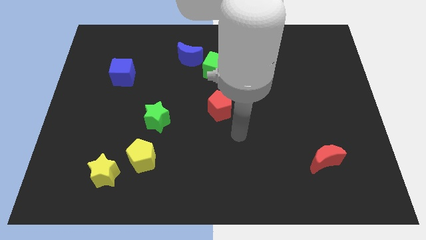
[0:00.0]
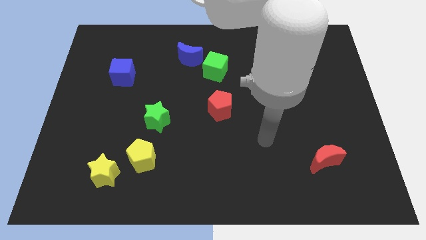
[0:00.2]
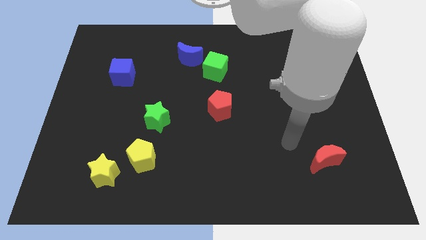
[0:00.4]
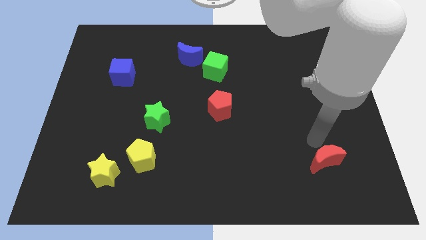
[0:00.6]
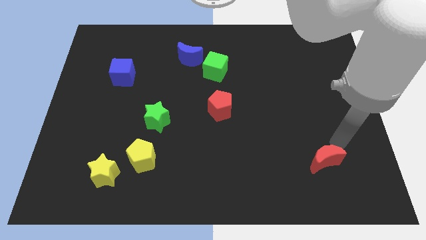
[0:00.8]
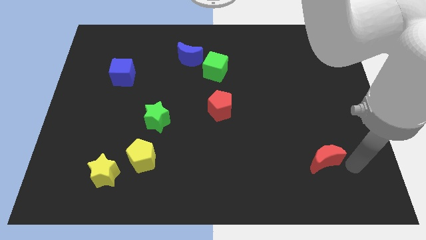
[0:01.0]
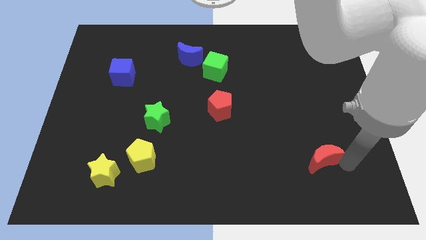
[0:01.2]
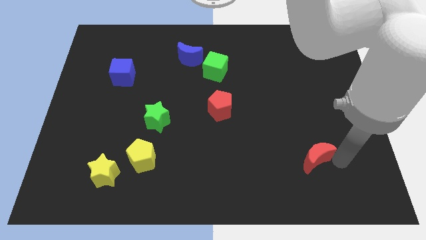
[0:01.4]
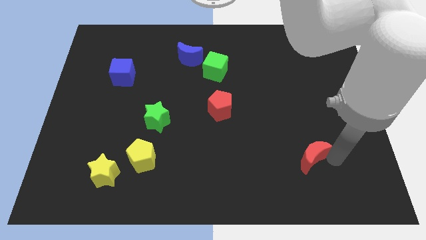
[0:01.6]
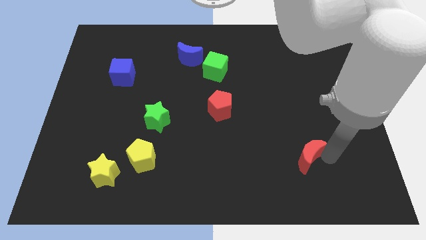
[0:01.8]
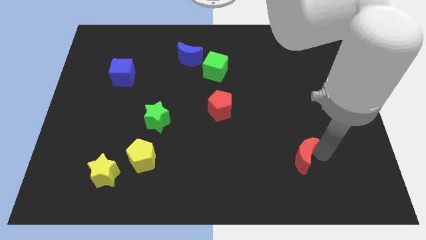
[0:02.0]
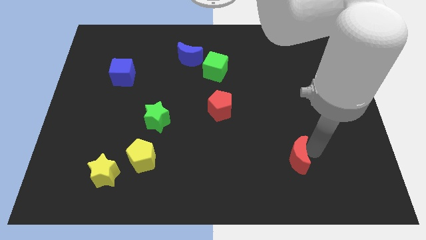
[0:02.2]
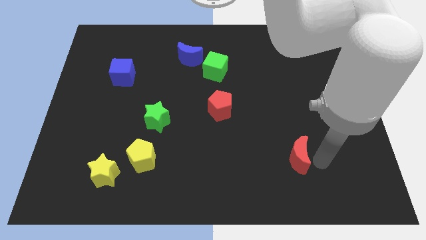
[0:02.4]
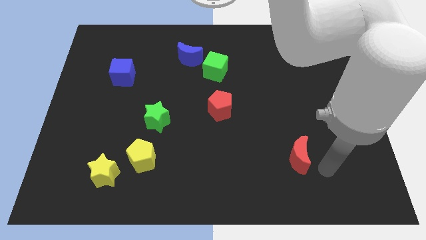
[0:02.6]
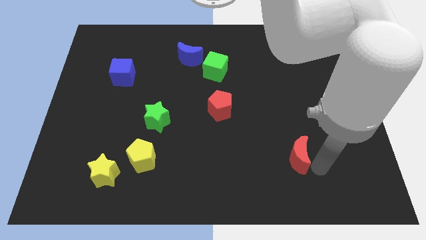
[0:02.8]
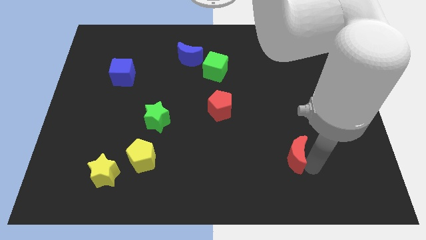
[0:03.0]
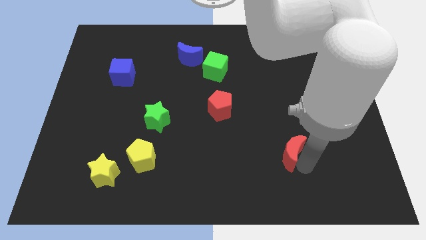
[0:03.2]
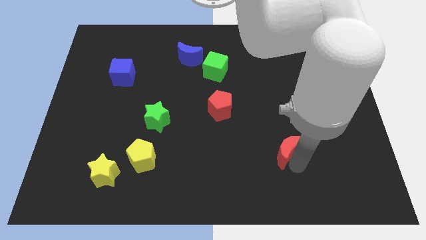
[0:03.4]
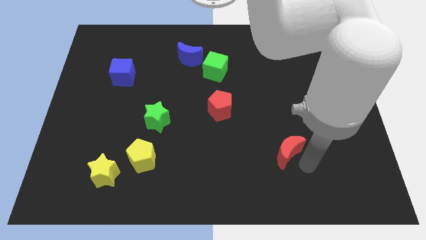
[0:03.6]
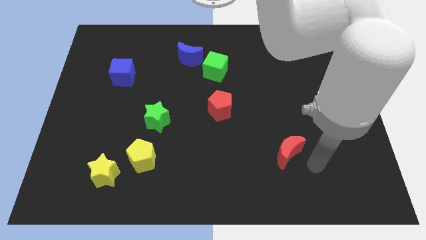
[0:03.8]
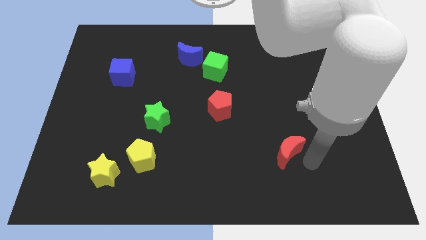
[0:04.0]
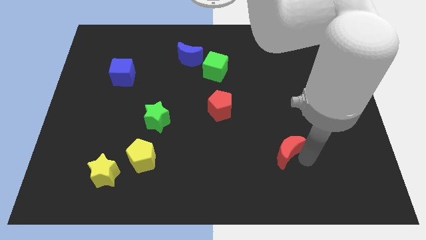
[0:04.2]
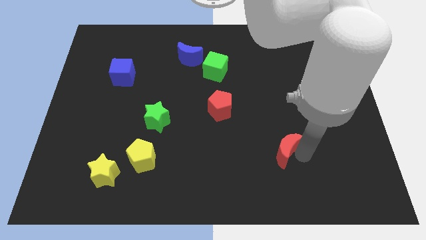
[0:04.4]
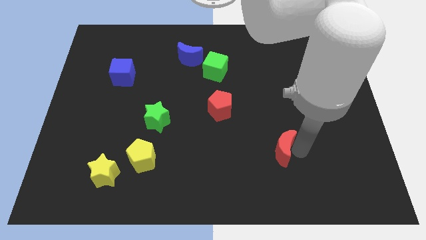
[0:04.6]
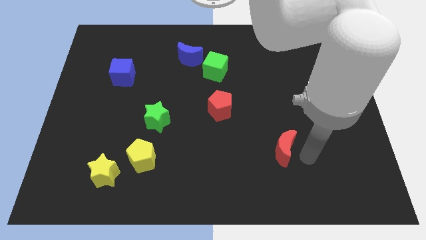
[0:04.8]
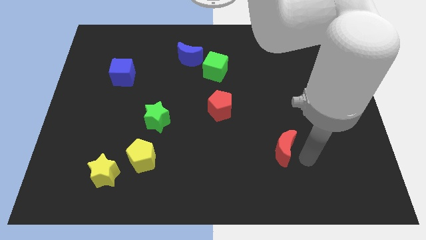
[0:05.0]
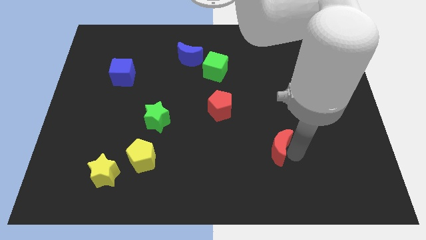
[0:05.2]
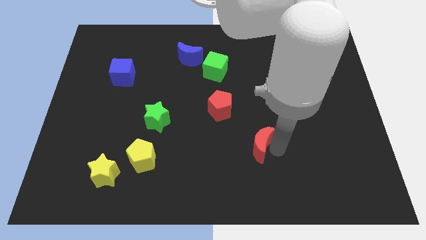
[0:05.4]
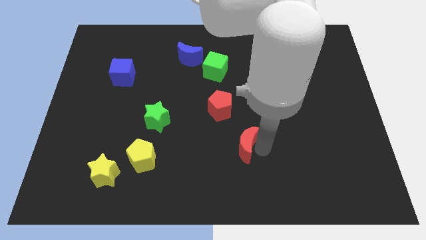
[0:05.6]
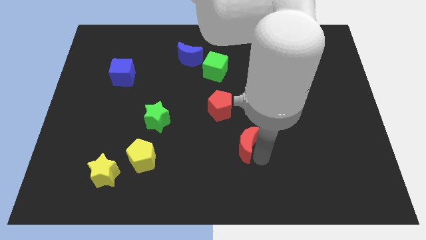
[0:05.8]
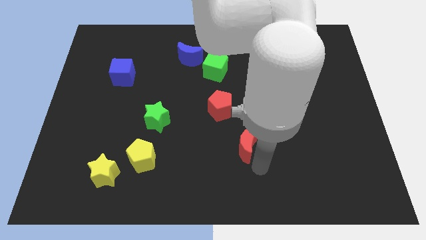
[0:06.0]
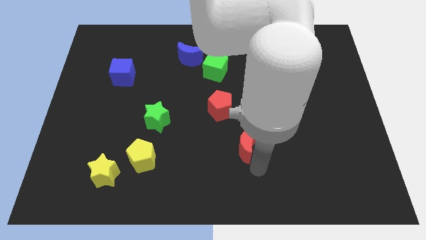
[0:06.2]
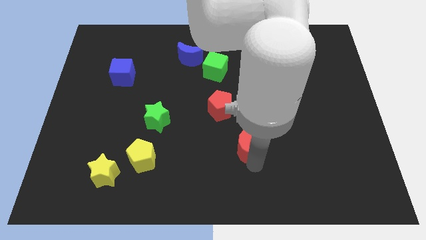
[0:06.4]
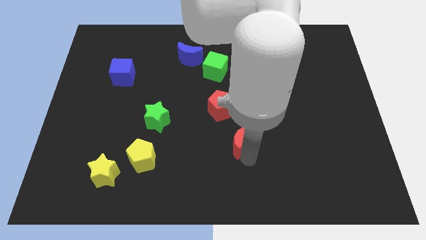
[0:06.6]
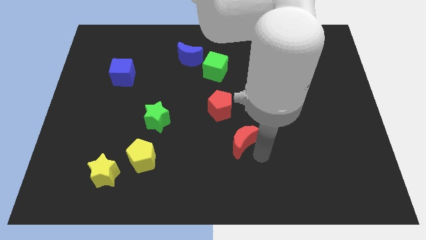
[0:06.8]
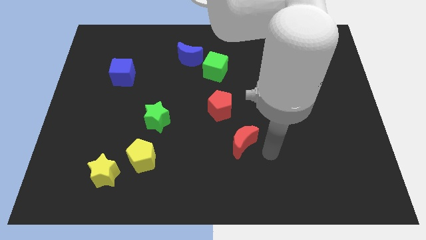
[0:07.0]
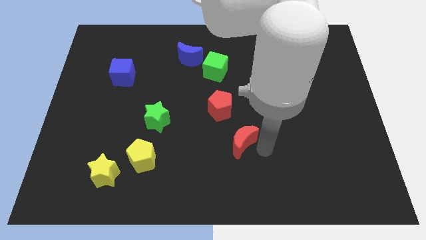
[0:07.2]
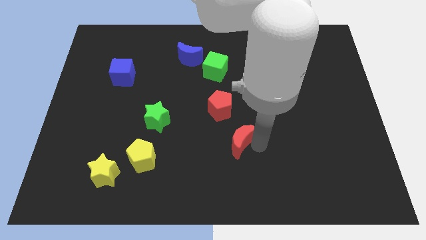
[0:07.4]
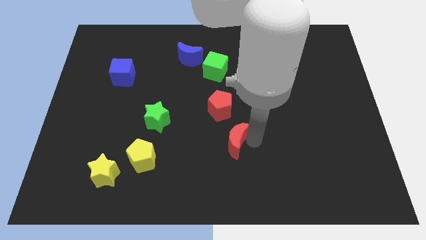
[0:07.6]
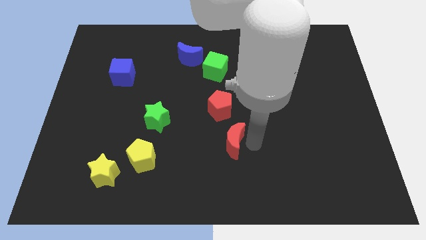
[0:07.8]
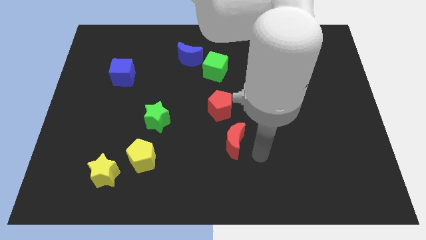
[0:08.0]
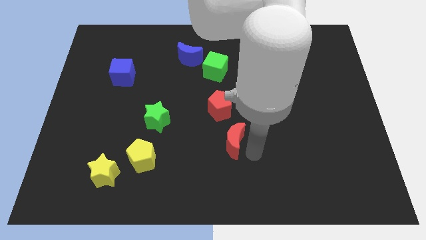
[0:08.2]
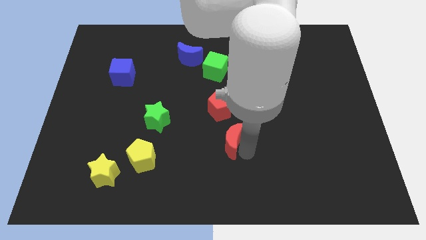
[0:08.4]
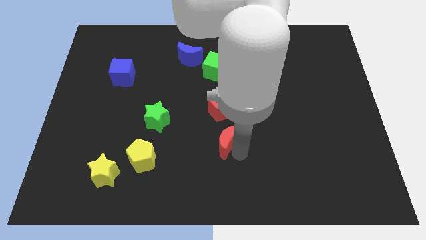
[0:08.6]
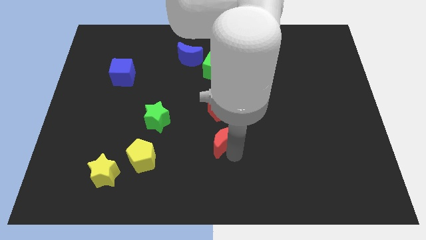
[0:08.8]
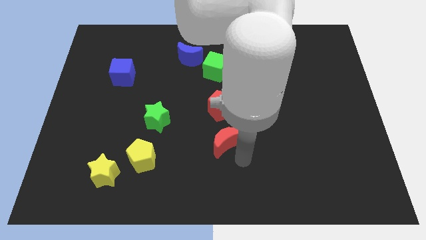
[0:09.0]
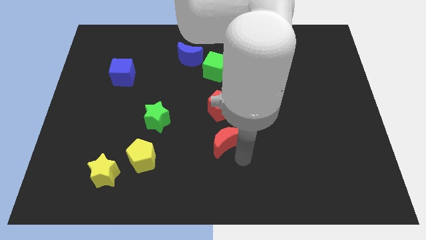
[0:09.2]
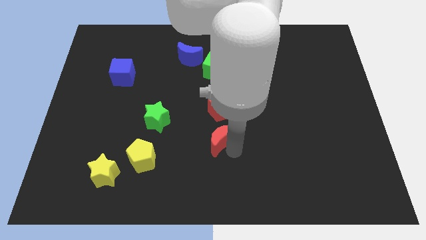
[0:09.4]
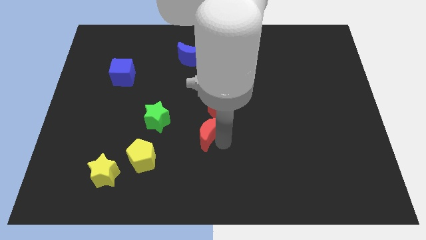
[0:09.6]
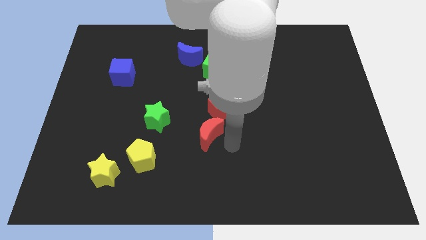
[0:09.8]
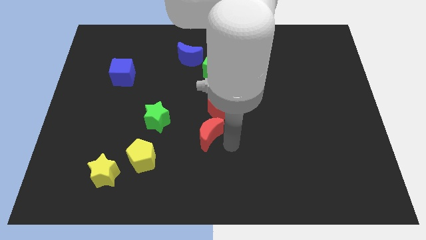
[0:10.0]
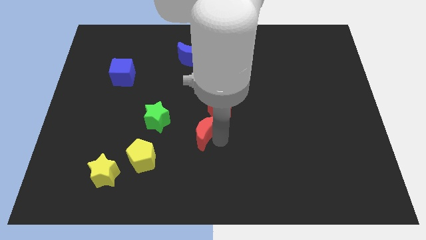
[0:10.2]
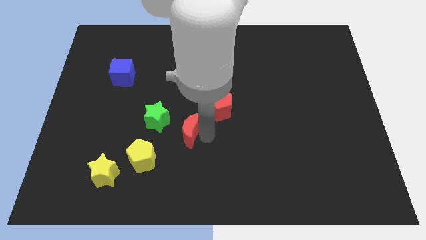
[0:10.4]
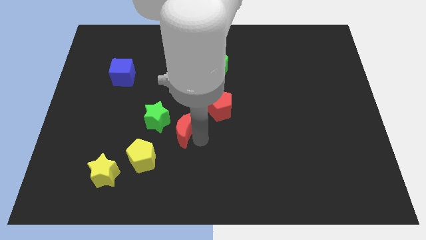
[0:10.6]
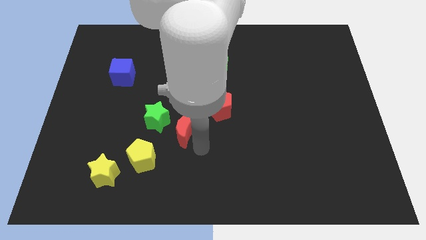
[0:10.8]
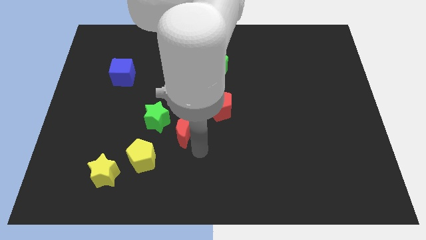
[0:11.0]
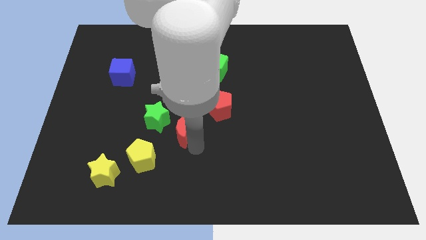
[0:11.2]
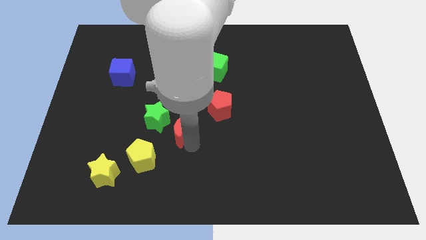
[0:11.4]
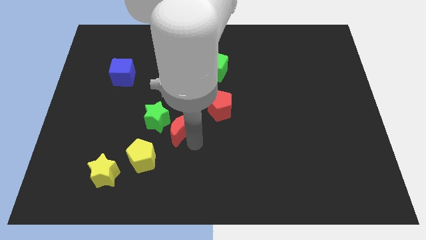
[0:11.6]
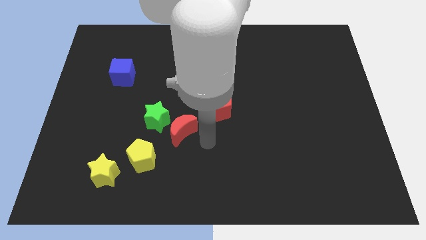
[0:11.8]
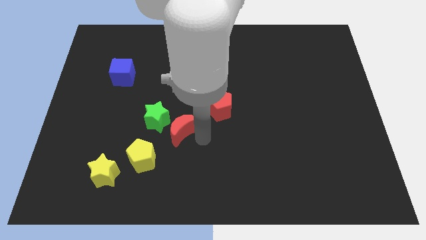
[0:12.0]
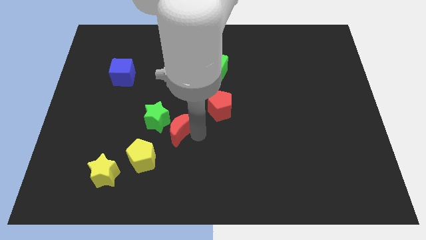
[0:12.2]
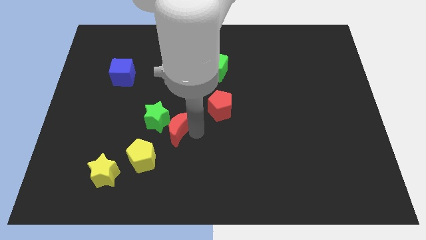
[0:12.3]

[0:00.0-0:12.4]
put the red moon to the green star

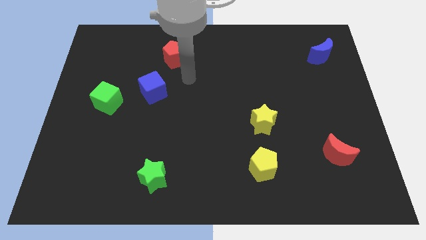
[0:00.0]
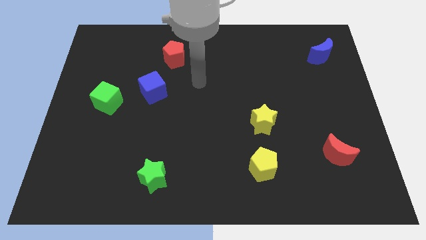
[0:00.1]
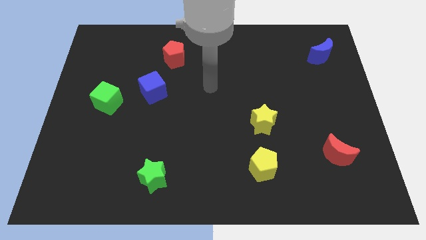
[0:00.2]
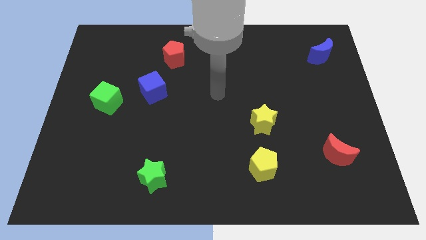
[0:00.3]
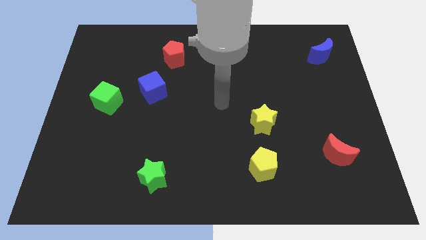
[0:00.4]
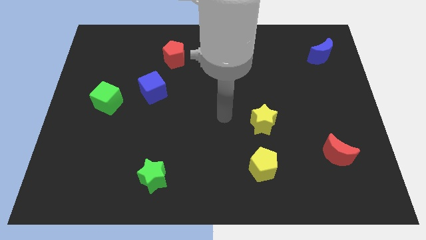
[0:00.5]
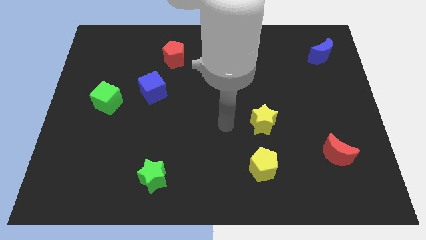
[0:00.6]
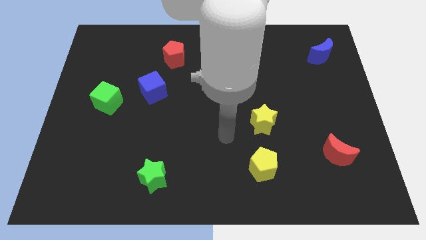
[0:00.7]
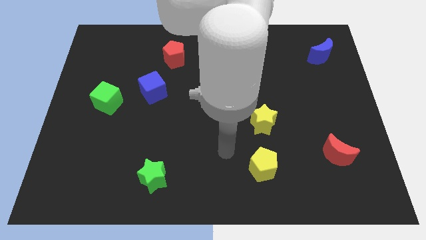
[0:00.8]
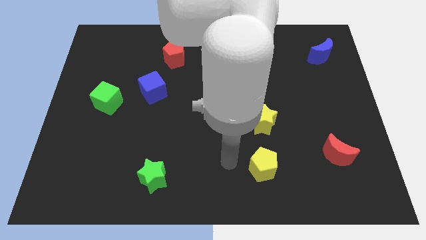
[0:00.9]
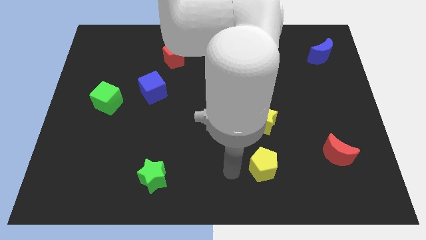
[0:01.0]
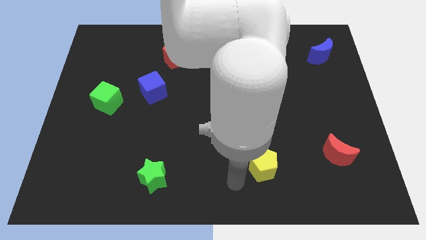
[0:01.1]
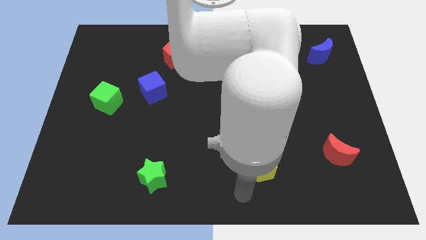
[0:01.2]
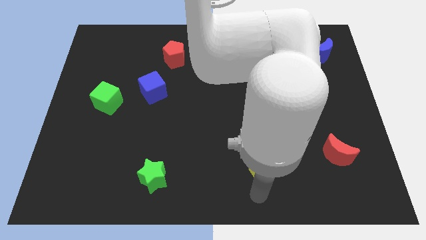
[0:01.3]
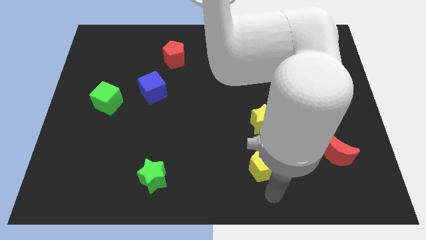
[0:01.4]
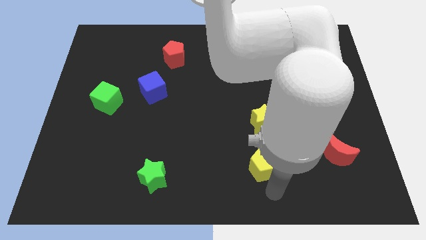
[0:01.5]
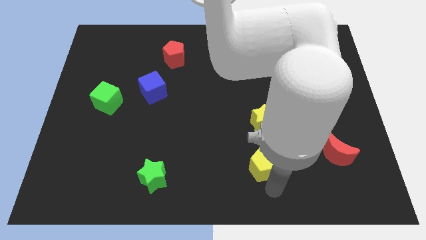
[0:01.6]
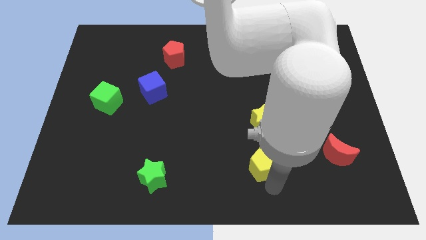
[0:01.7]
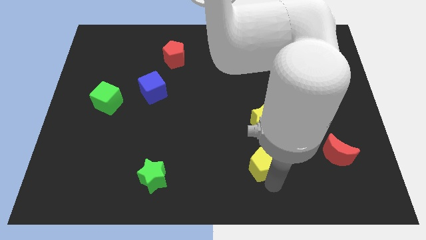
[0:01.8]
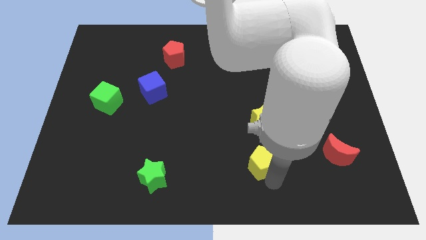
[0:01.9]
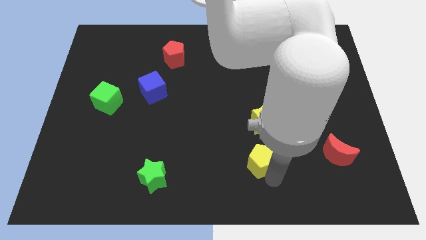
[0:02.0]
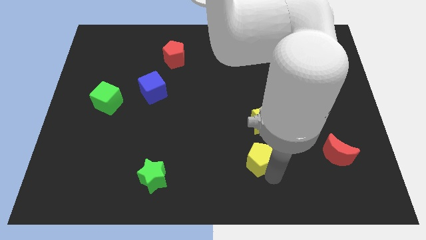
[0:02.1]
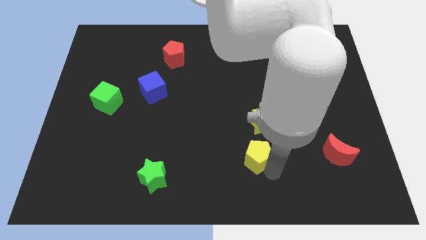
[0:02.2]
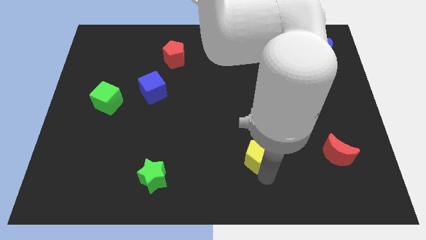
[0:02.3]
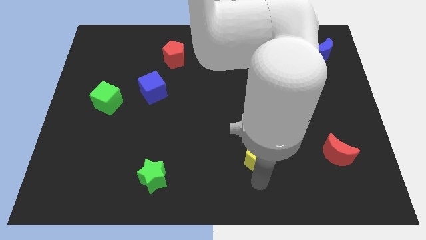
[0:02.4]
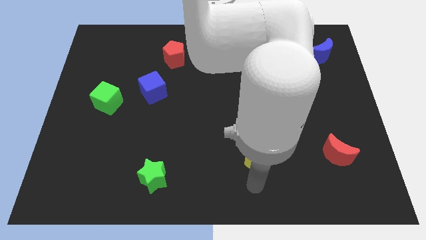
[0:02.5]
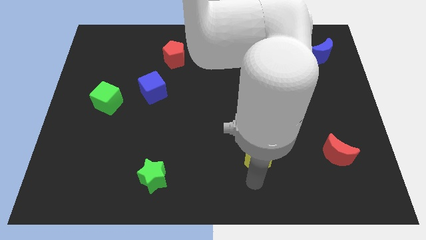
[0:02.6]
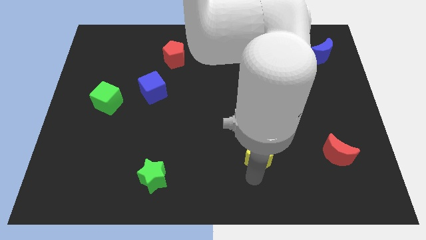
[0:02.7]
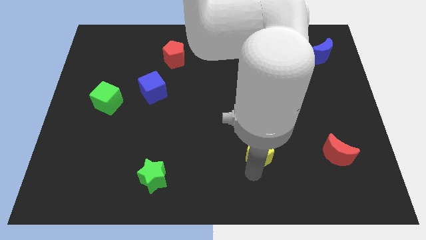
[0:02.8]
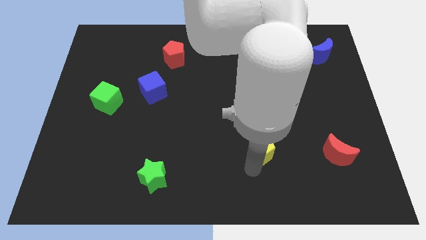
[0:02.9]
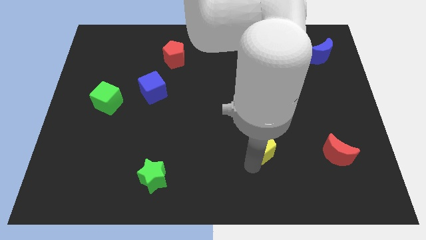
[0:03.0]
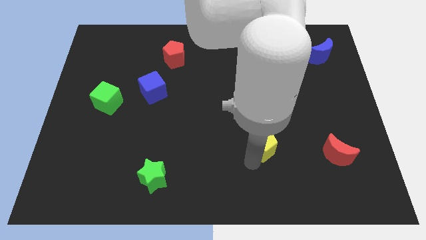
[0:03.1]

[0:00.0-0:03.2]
move the yellow pentagon close to the yellow star
